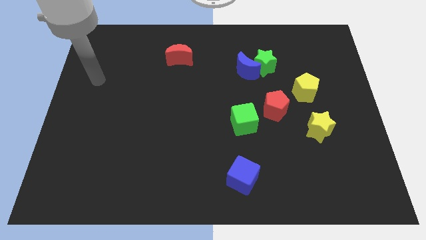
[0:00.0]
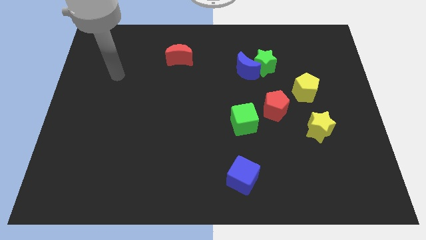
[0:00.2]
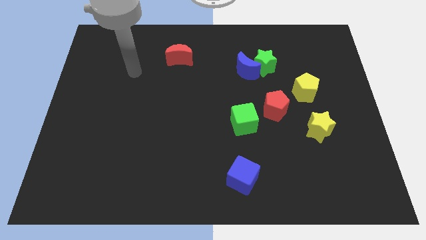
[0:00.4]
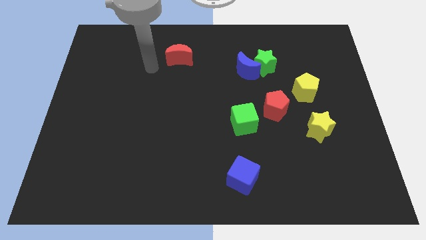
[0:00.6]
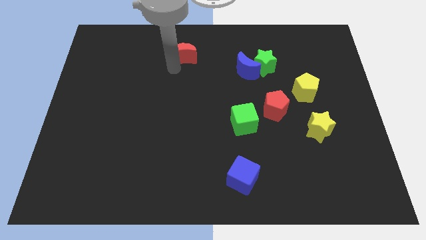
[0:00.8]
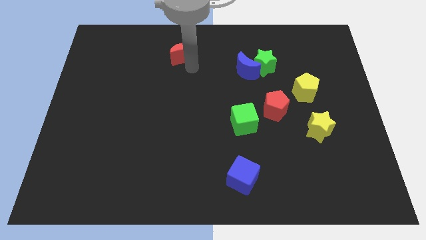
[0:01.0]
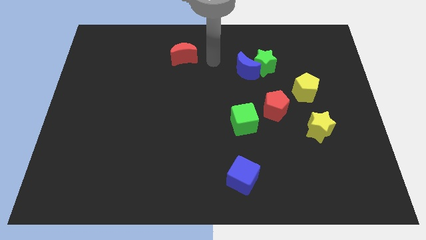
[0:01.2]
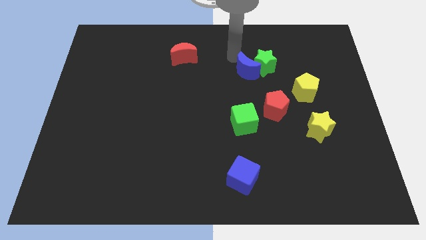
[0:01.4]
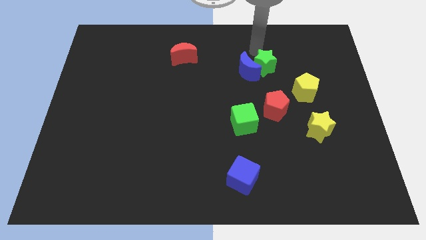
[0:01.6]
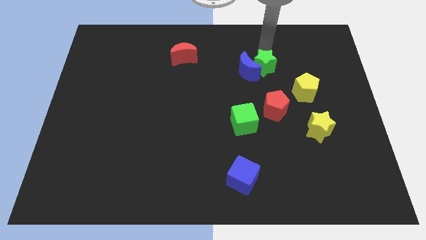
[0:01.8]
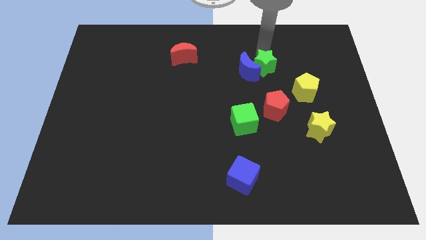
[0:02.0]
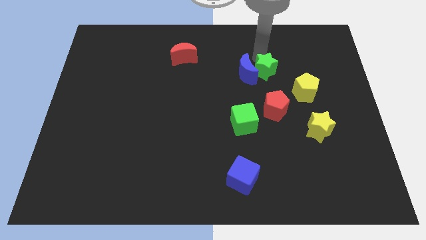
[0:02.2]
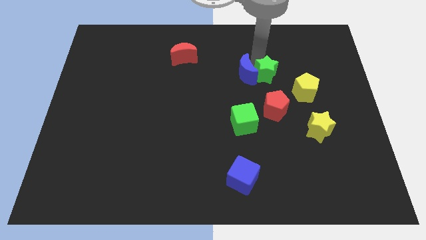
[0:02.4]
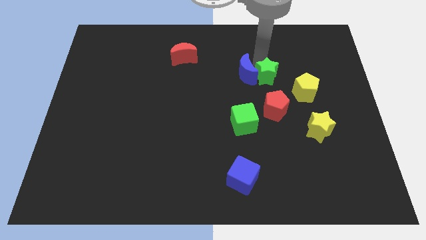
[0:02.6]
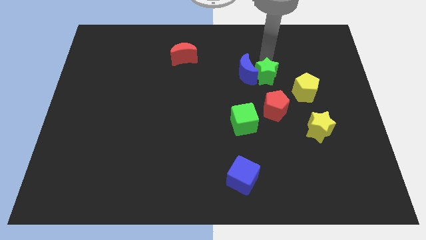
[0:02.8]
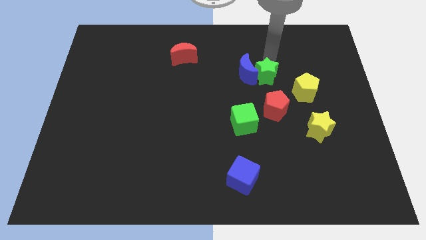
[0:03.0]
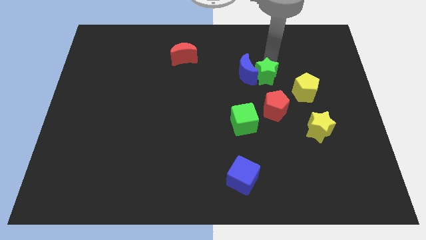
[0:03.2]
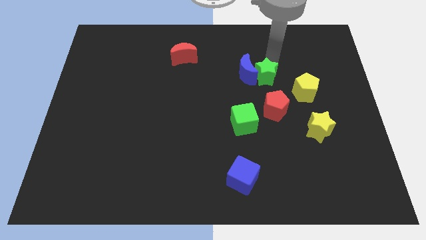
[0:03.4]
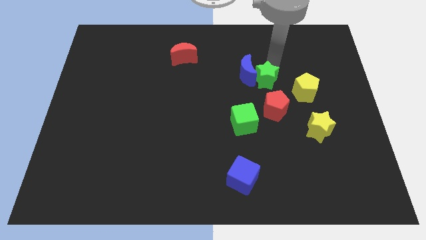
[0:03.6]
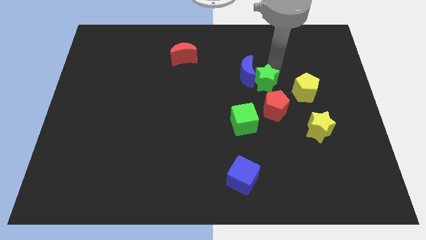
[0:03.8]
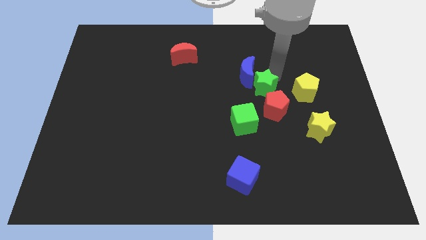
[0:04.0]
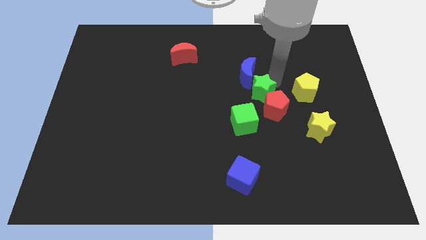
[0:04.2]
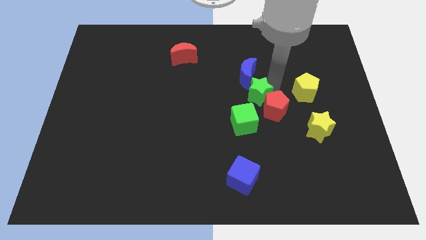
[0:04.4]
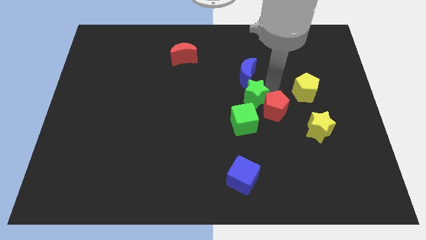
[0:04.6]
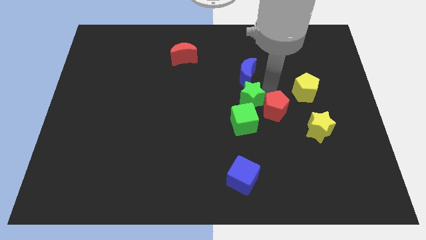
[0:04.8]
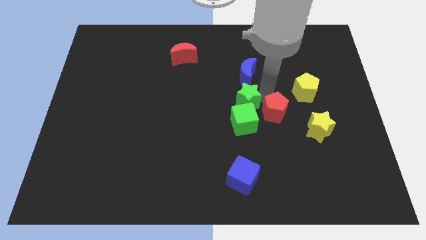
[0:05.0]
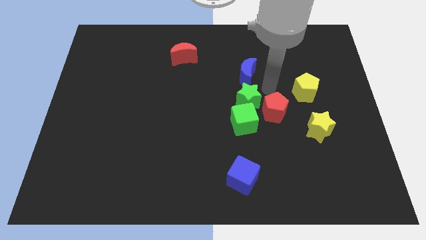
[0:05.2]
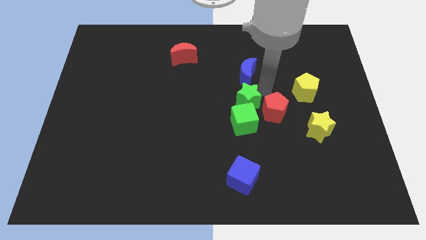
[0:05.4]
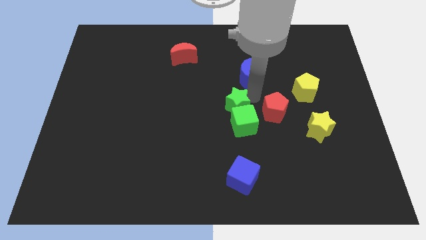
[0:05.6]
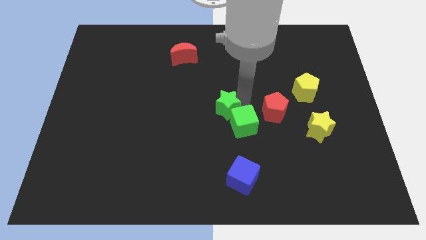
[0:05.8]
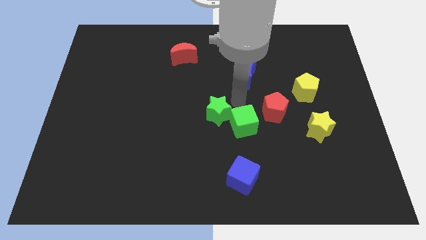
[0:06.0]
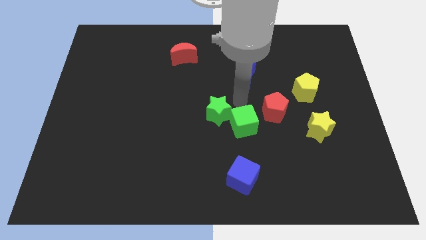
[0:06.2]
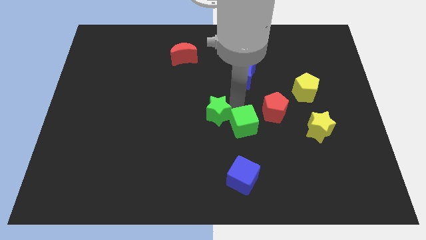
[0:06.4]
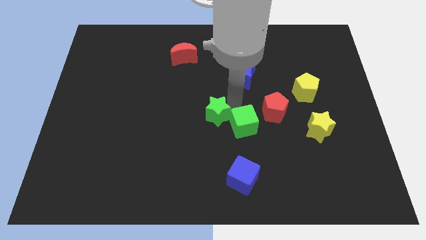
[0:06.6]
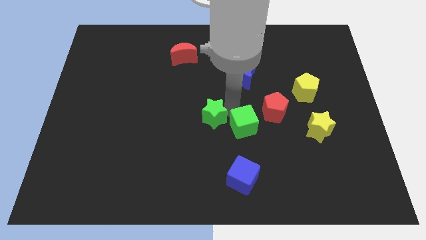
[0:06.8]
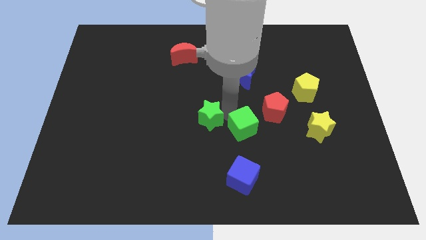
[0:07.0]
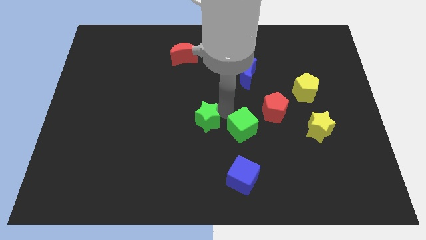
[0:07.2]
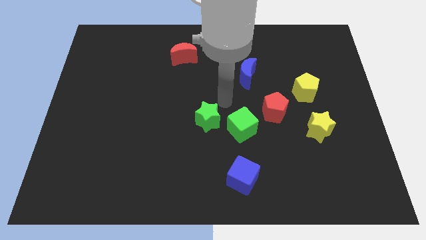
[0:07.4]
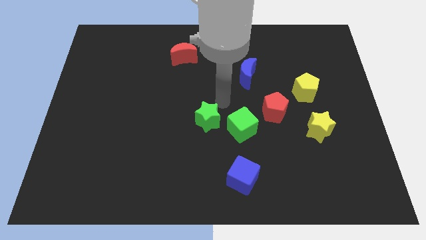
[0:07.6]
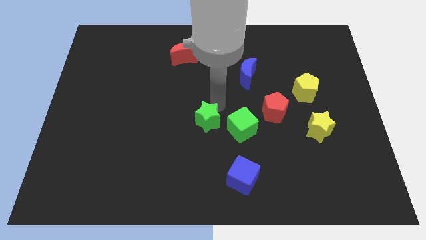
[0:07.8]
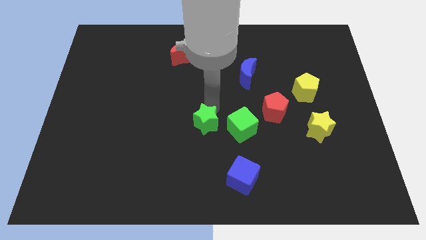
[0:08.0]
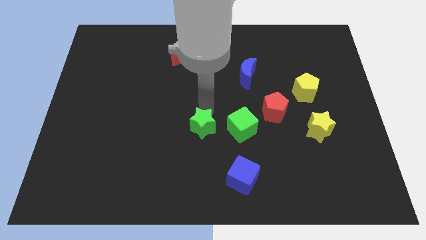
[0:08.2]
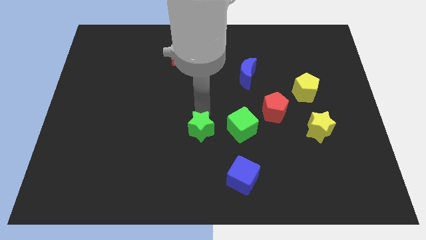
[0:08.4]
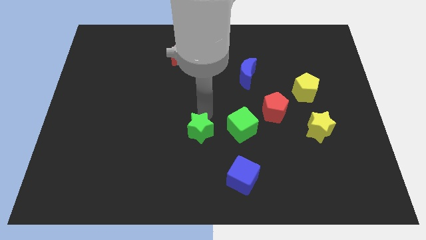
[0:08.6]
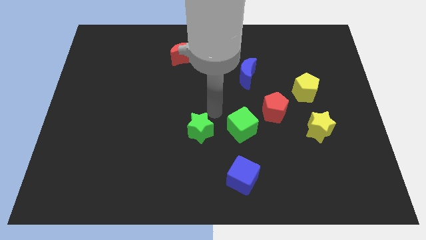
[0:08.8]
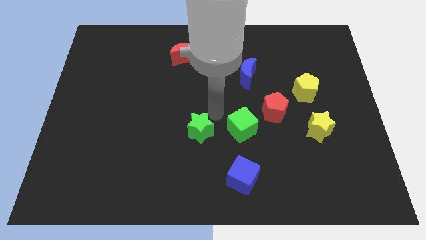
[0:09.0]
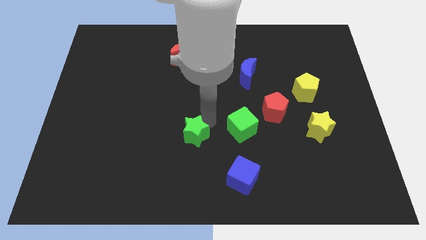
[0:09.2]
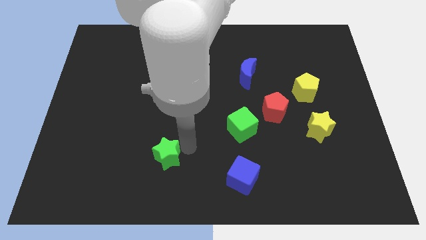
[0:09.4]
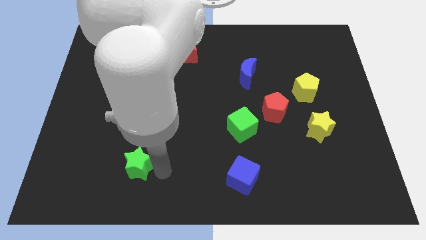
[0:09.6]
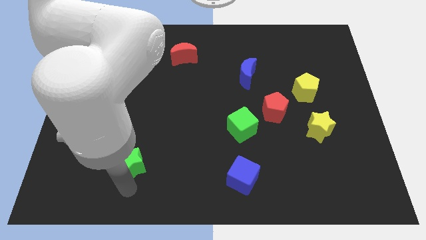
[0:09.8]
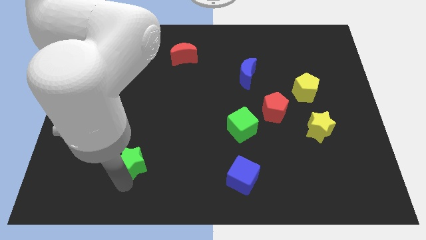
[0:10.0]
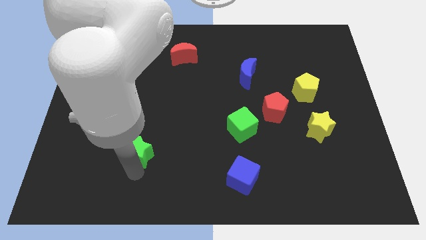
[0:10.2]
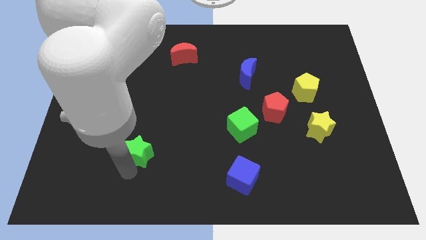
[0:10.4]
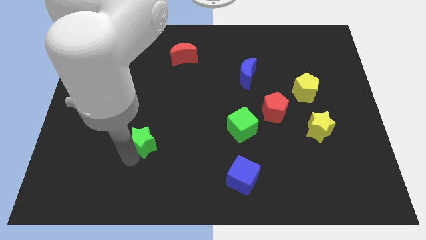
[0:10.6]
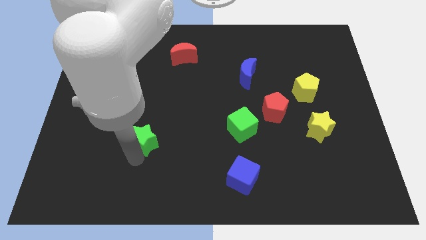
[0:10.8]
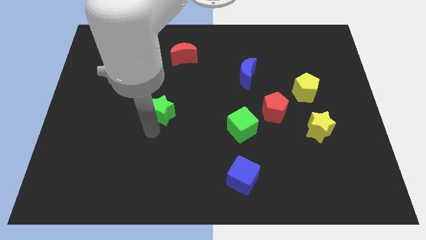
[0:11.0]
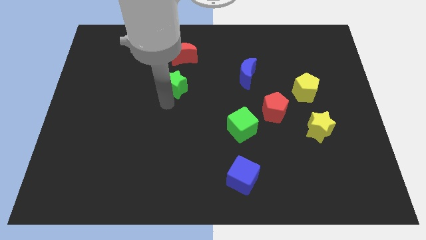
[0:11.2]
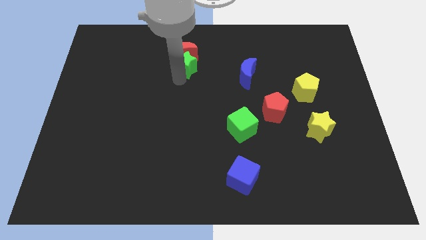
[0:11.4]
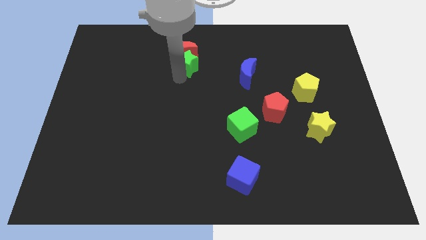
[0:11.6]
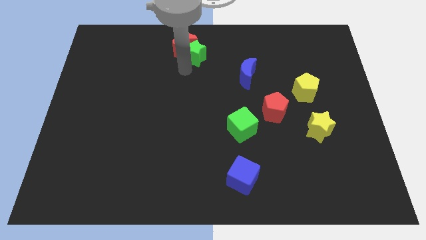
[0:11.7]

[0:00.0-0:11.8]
push the green star to the top
